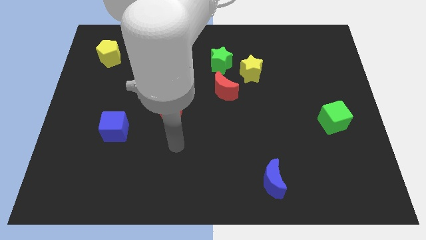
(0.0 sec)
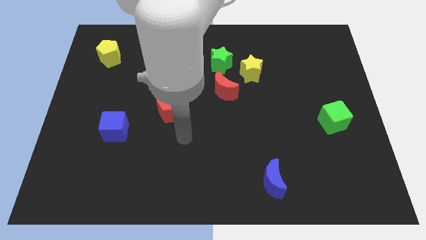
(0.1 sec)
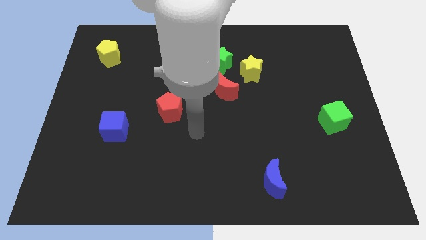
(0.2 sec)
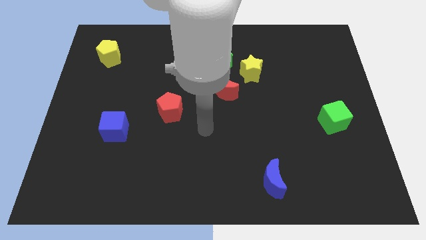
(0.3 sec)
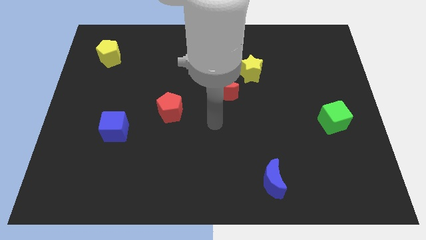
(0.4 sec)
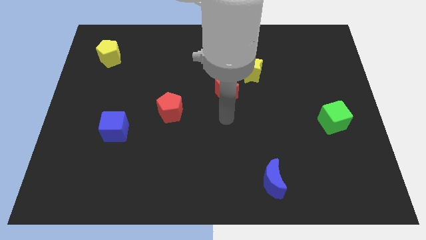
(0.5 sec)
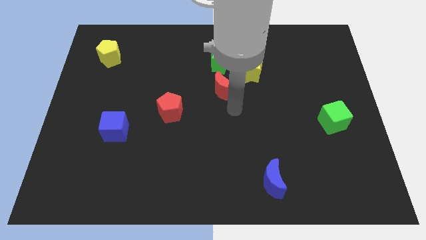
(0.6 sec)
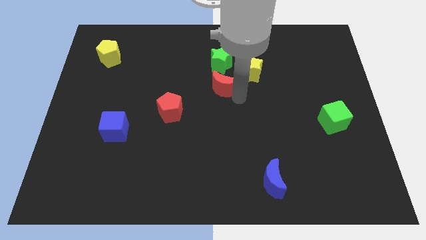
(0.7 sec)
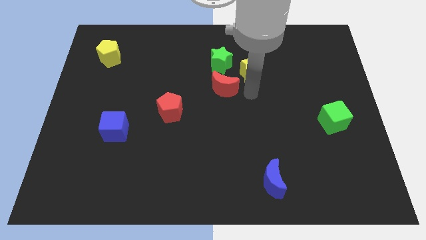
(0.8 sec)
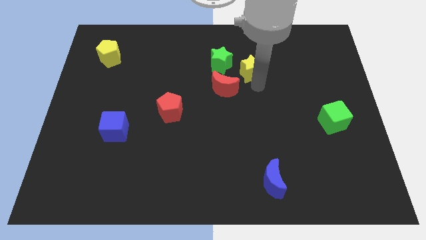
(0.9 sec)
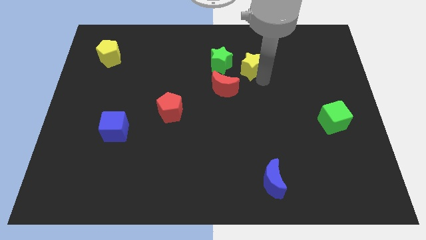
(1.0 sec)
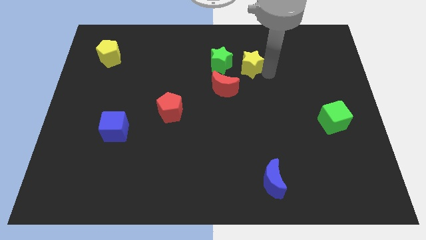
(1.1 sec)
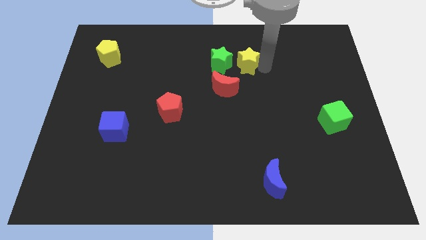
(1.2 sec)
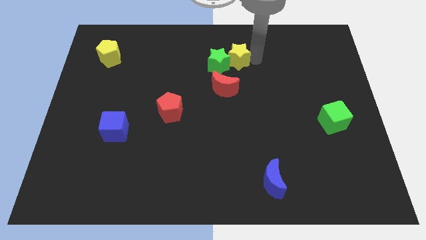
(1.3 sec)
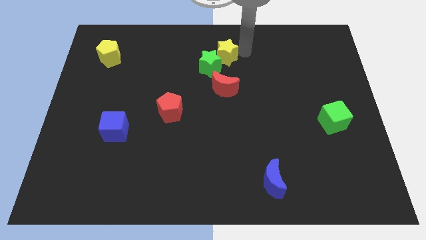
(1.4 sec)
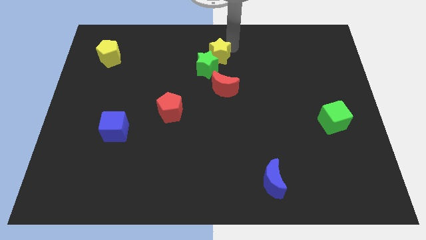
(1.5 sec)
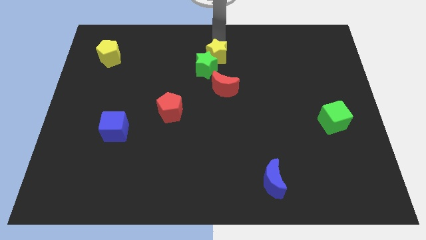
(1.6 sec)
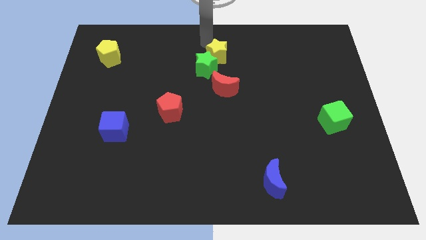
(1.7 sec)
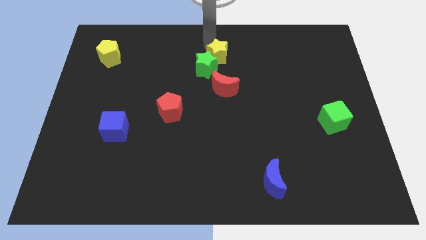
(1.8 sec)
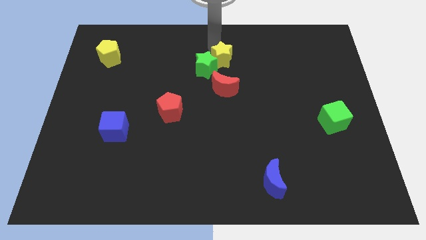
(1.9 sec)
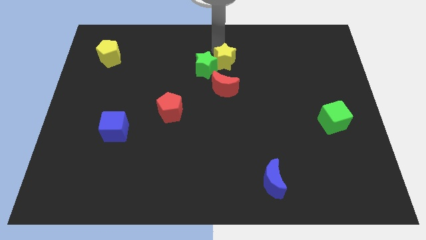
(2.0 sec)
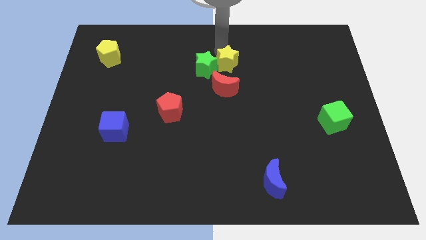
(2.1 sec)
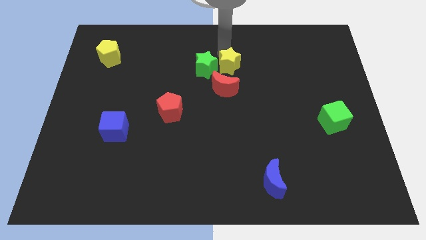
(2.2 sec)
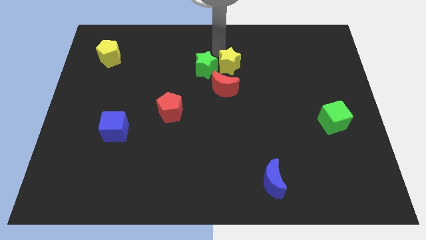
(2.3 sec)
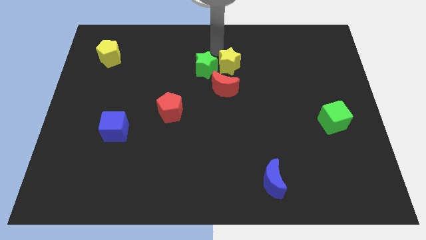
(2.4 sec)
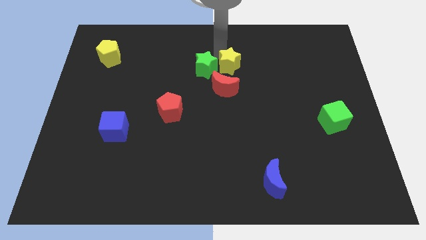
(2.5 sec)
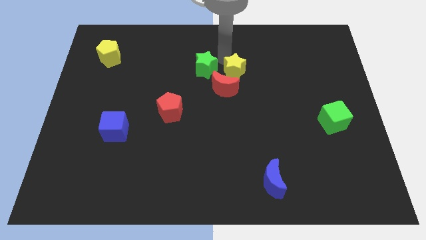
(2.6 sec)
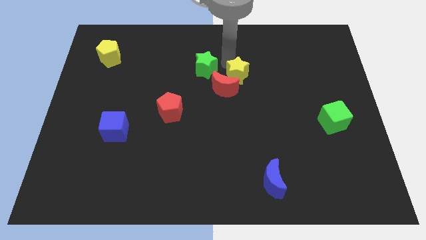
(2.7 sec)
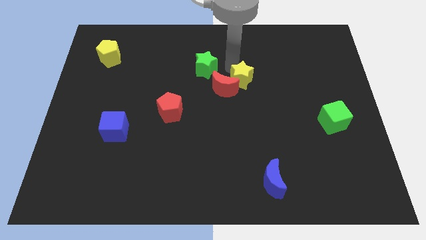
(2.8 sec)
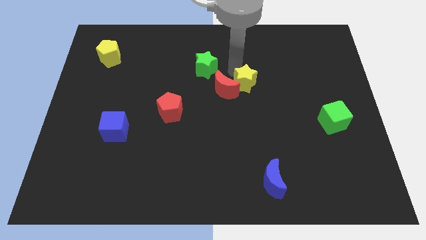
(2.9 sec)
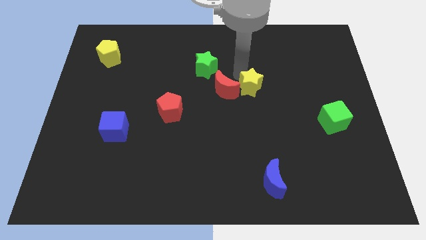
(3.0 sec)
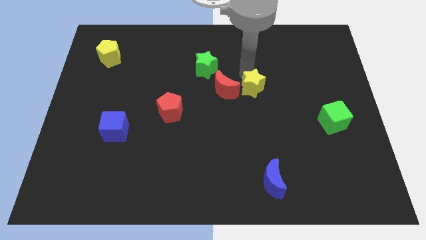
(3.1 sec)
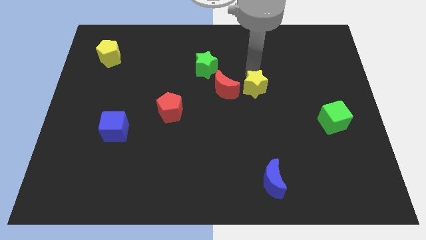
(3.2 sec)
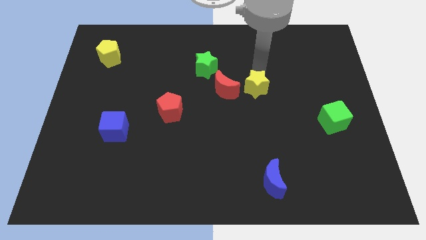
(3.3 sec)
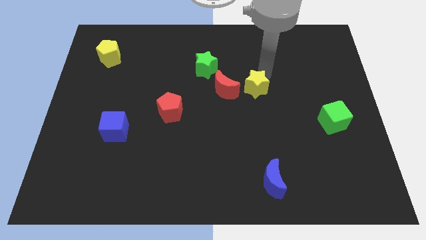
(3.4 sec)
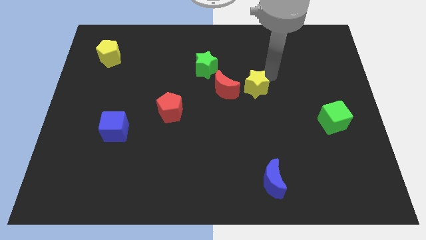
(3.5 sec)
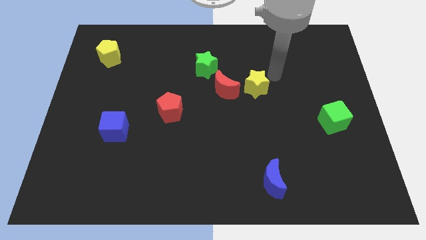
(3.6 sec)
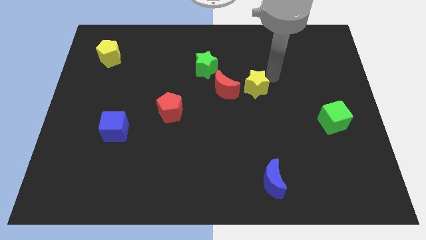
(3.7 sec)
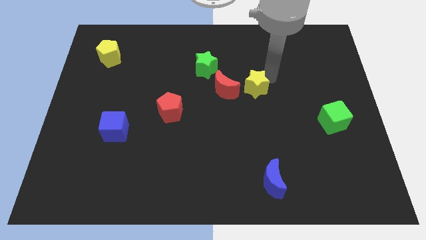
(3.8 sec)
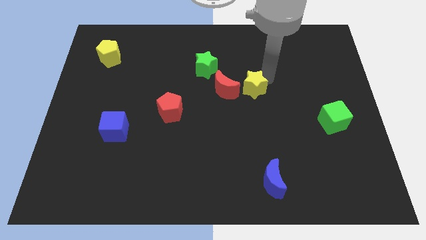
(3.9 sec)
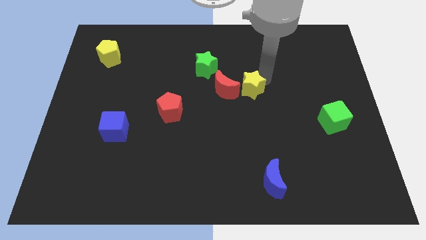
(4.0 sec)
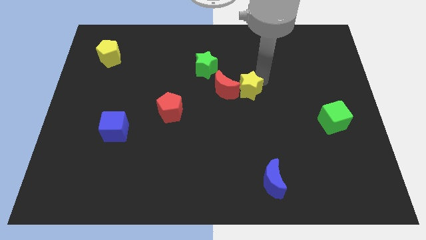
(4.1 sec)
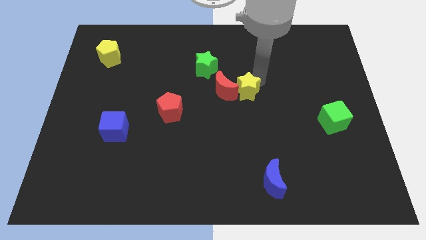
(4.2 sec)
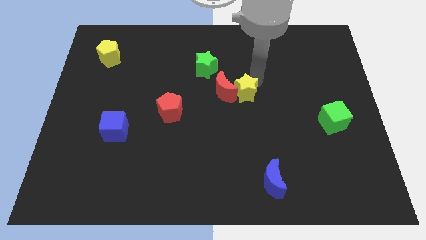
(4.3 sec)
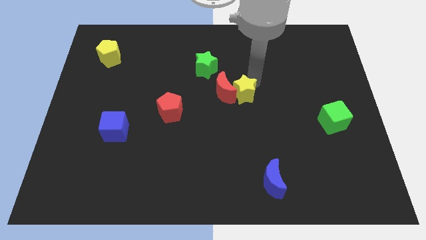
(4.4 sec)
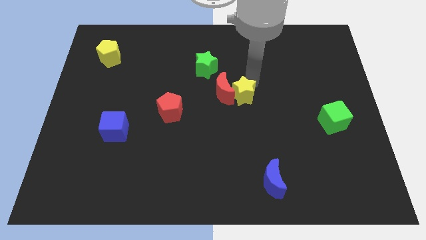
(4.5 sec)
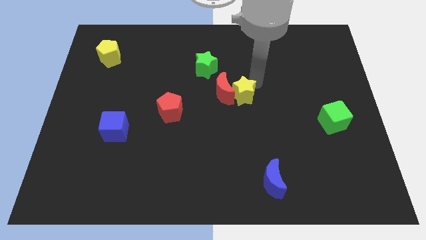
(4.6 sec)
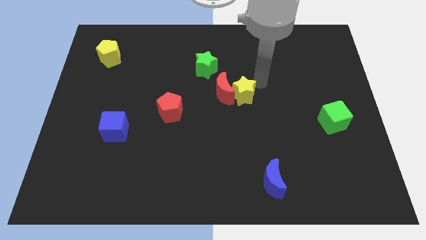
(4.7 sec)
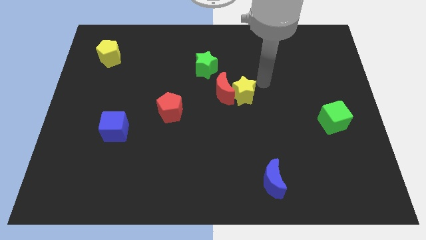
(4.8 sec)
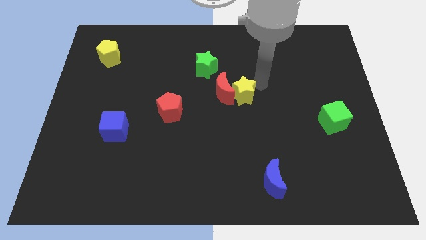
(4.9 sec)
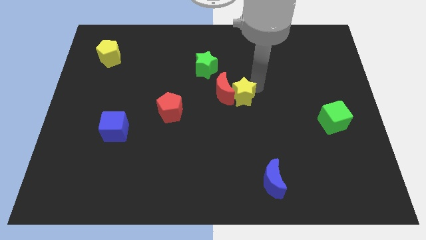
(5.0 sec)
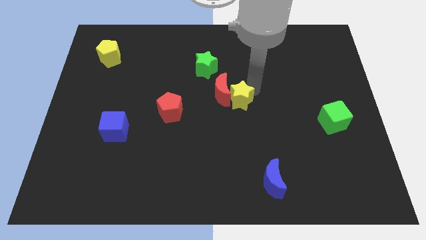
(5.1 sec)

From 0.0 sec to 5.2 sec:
move the yellow star diagonally downwards and to the left somewhat

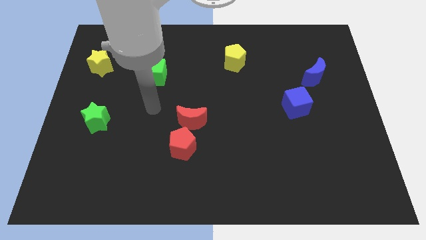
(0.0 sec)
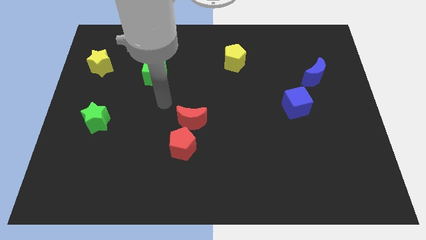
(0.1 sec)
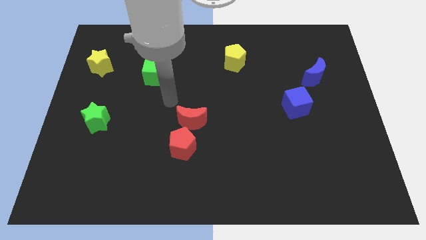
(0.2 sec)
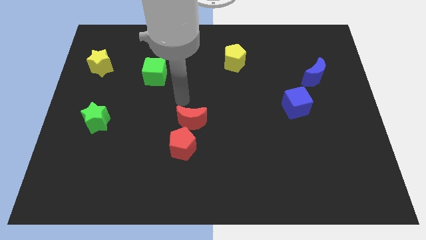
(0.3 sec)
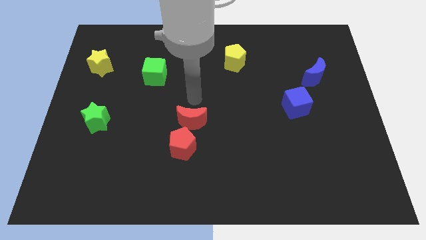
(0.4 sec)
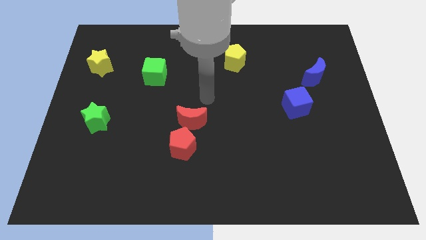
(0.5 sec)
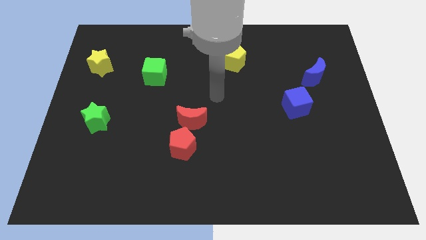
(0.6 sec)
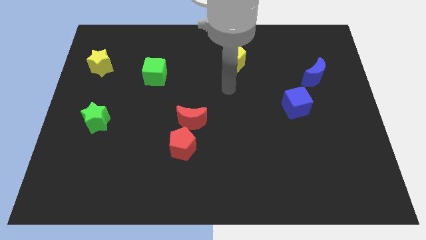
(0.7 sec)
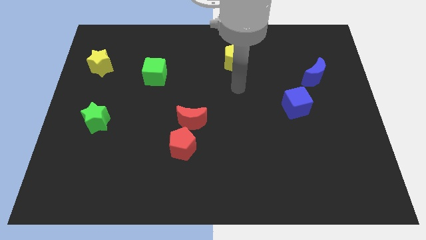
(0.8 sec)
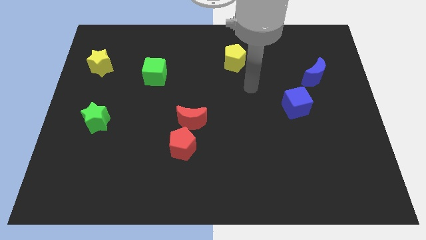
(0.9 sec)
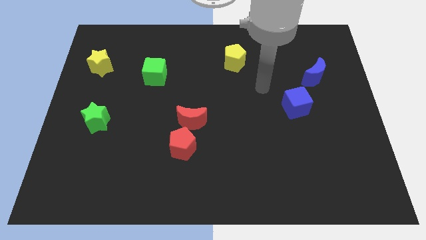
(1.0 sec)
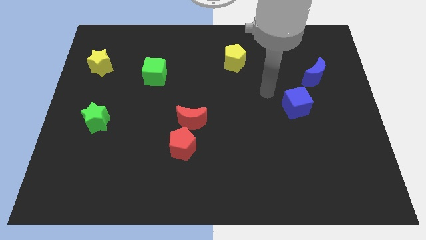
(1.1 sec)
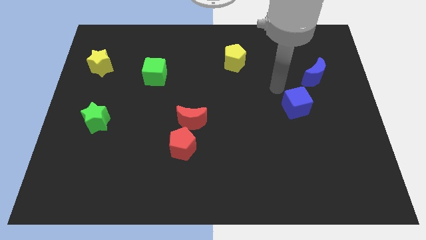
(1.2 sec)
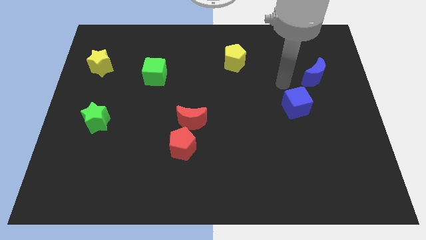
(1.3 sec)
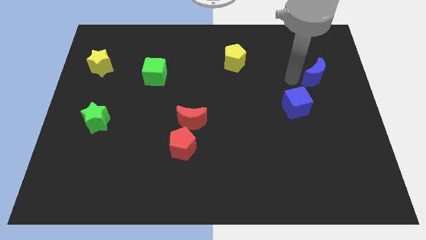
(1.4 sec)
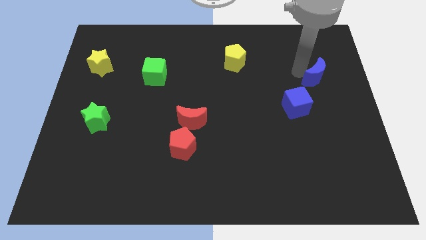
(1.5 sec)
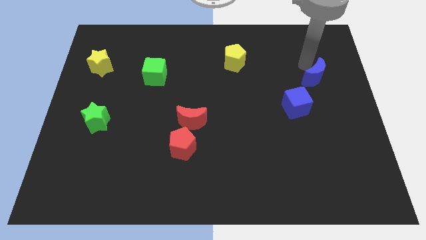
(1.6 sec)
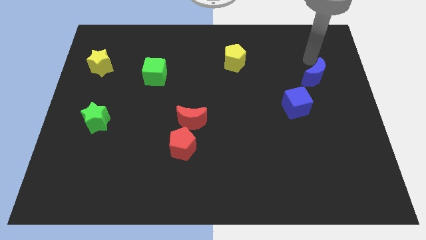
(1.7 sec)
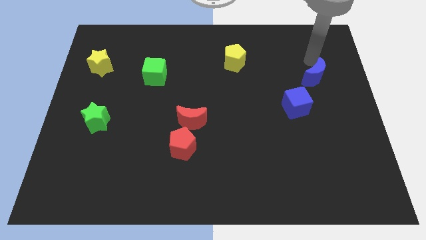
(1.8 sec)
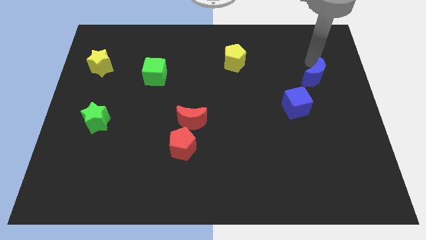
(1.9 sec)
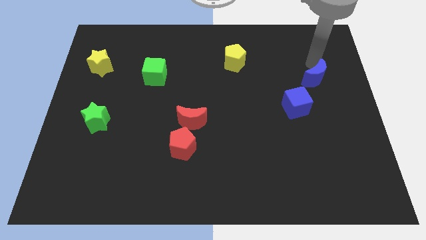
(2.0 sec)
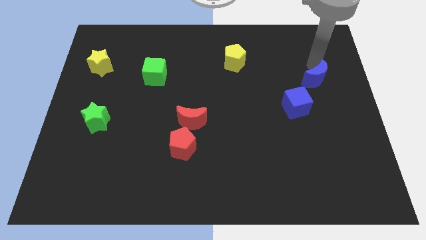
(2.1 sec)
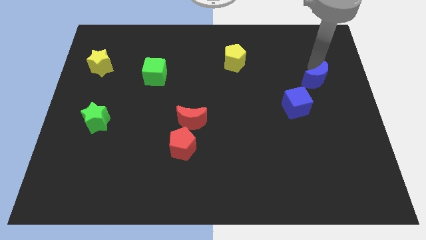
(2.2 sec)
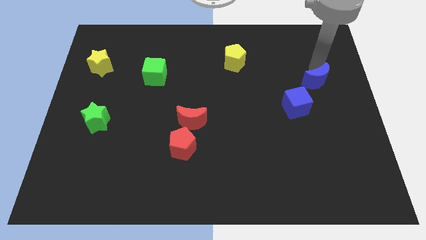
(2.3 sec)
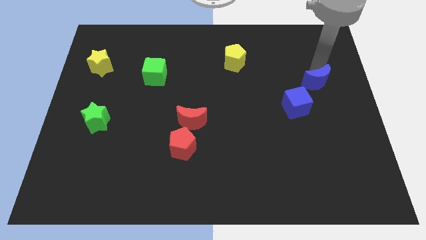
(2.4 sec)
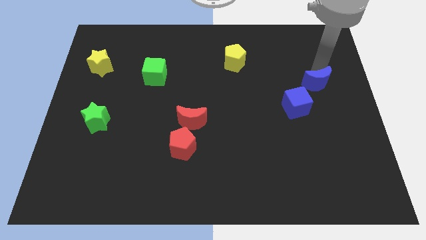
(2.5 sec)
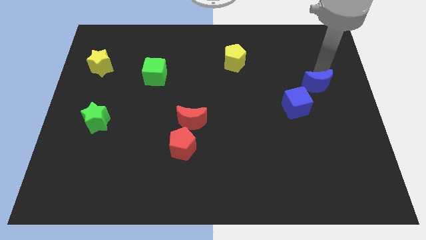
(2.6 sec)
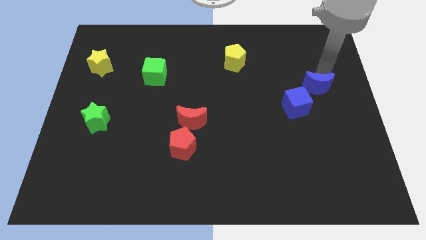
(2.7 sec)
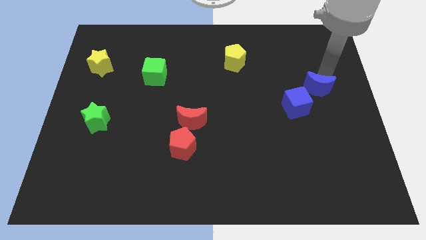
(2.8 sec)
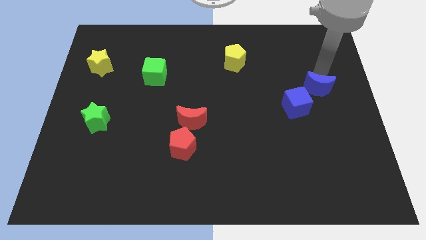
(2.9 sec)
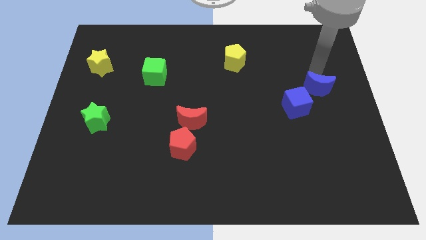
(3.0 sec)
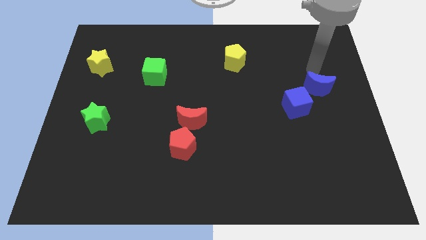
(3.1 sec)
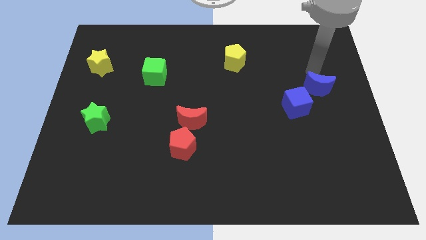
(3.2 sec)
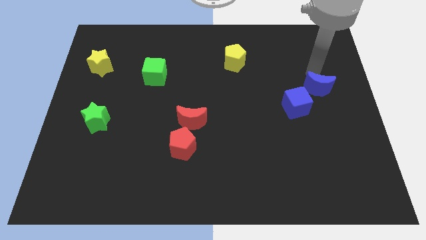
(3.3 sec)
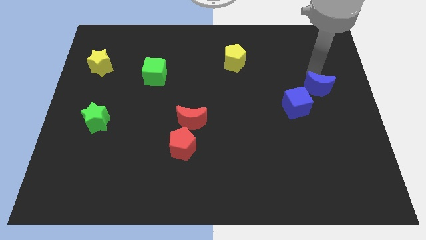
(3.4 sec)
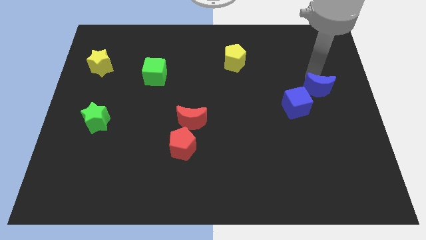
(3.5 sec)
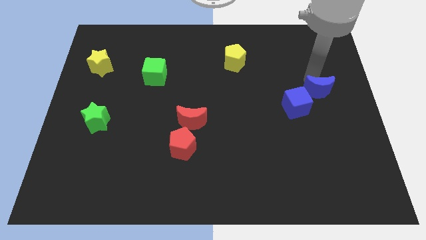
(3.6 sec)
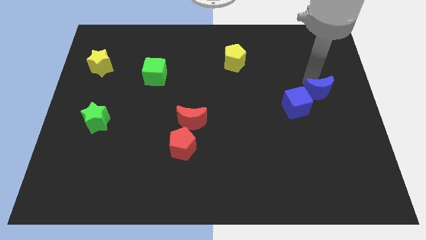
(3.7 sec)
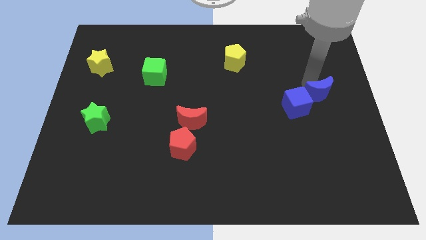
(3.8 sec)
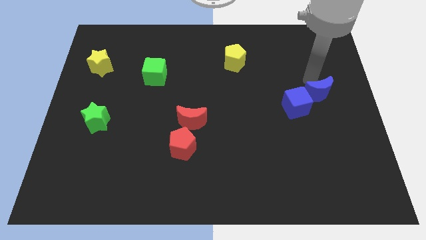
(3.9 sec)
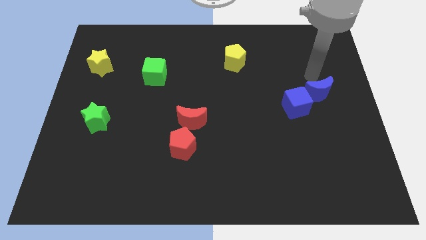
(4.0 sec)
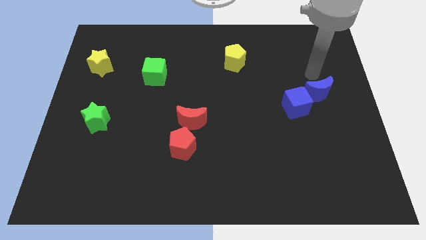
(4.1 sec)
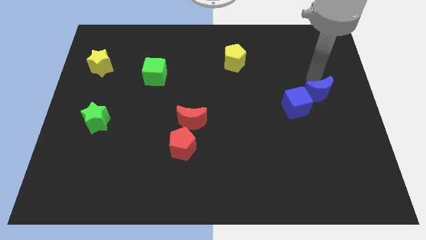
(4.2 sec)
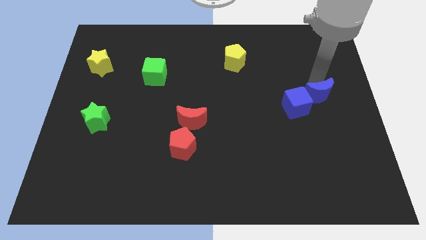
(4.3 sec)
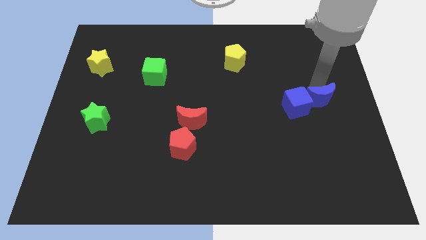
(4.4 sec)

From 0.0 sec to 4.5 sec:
slide the blue moon slightly downwards
